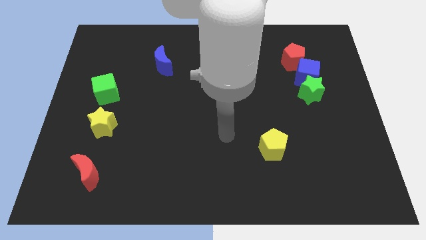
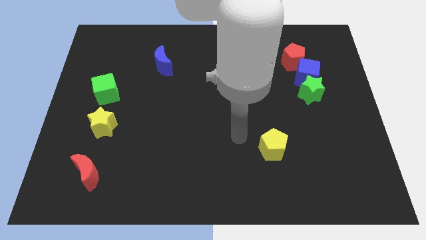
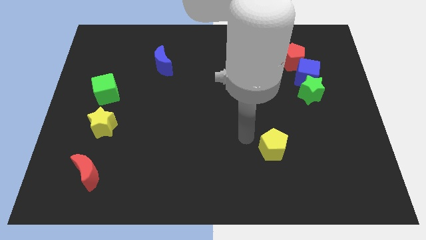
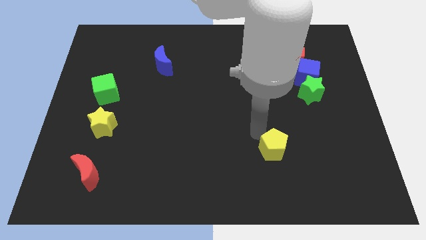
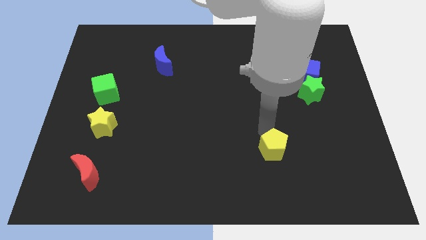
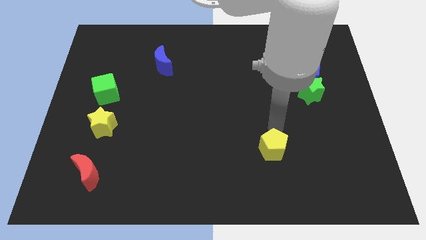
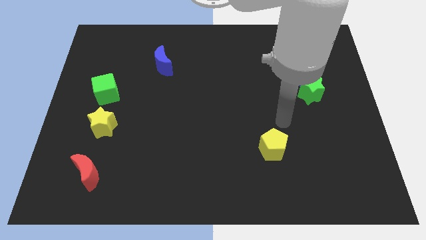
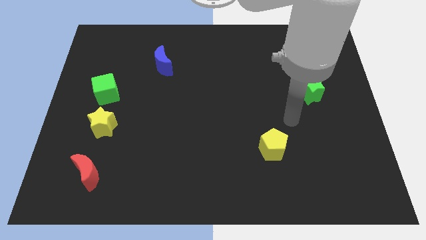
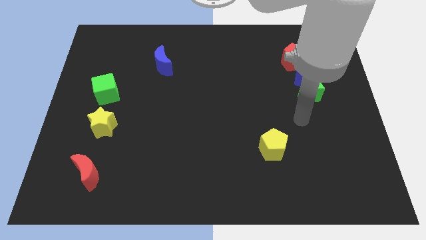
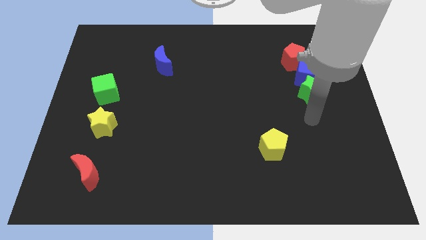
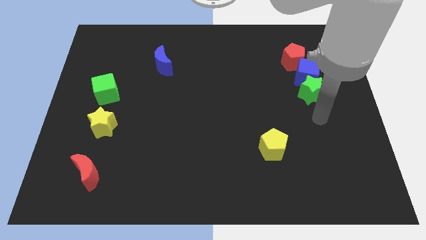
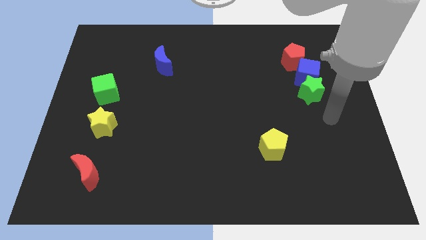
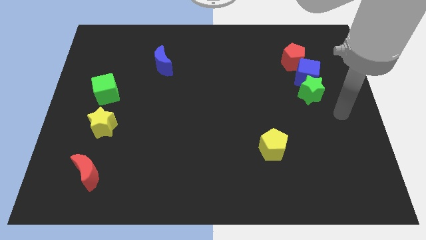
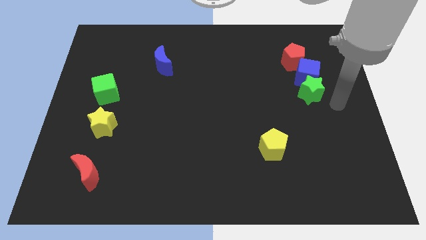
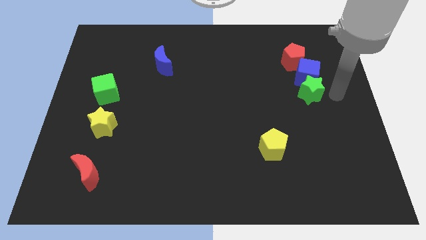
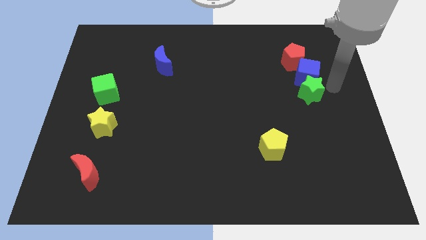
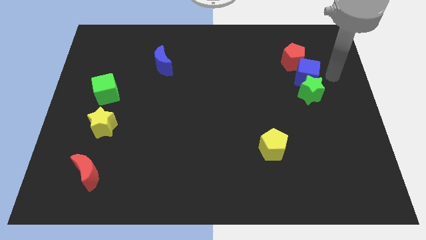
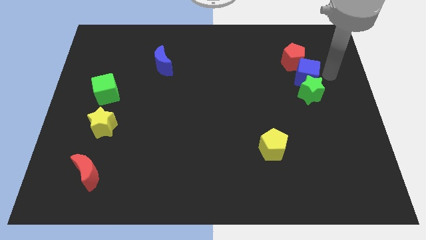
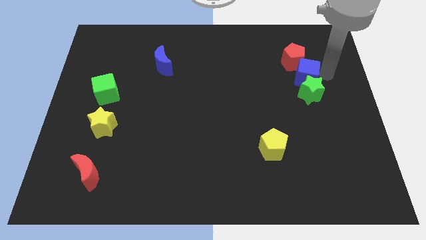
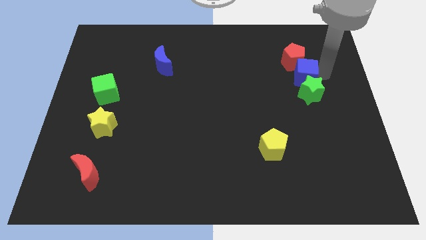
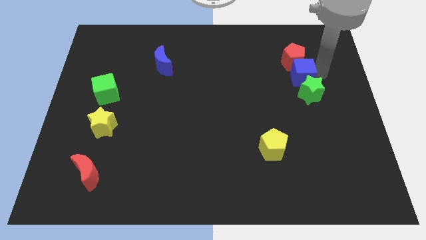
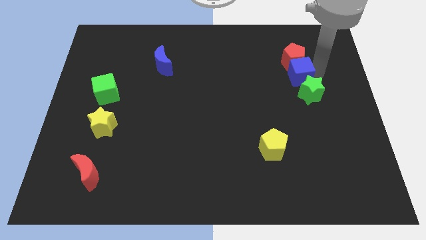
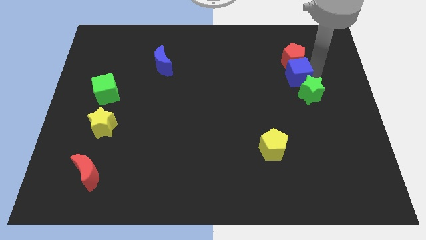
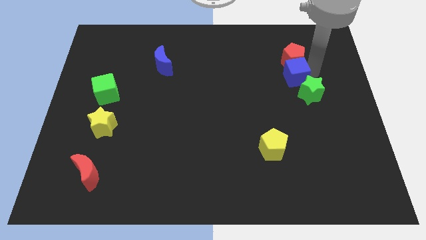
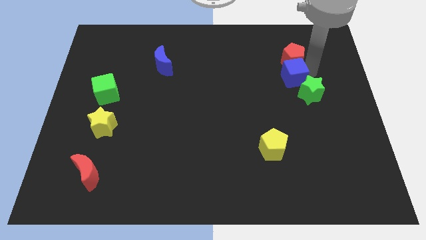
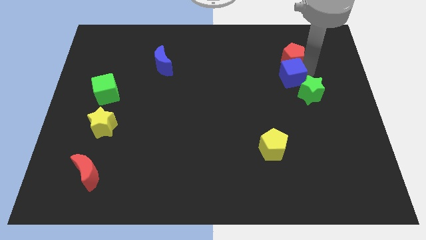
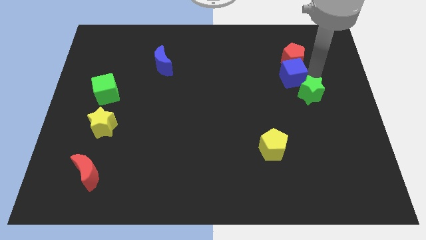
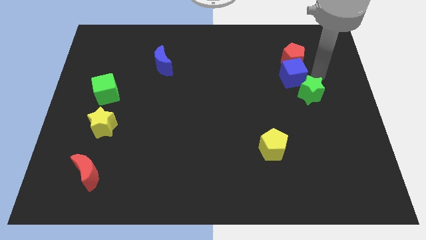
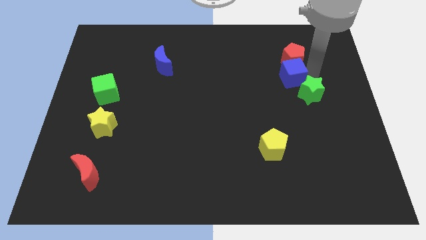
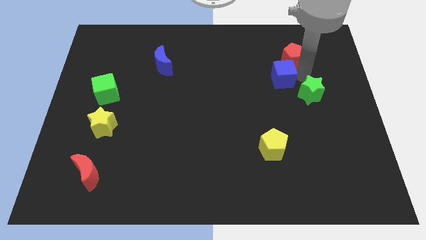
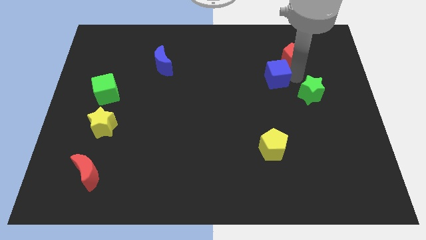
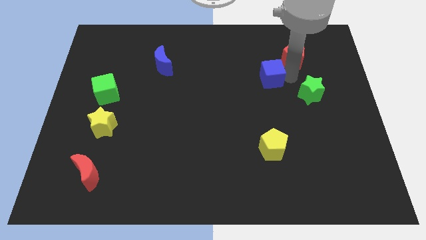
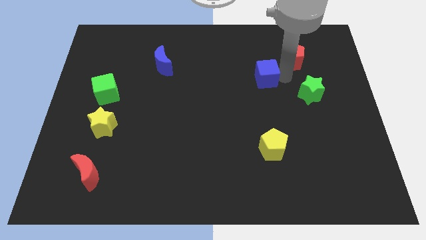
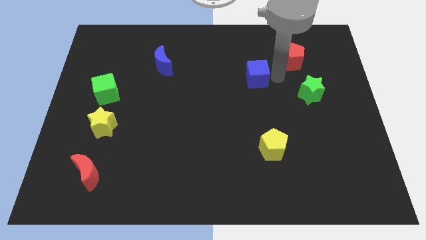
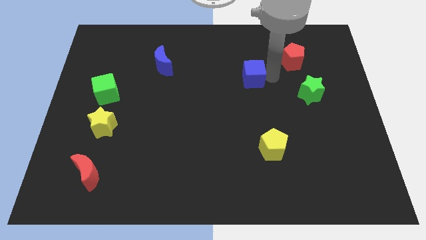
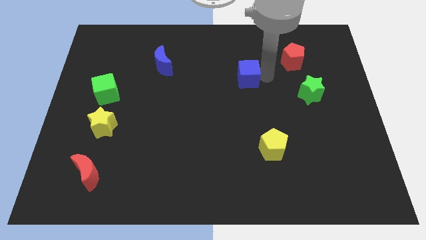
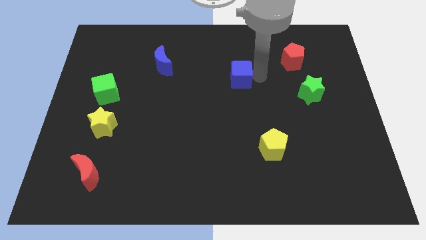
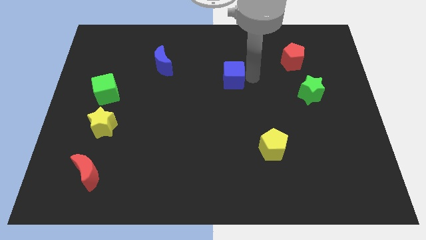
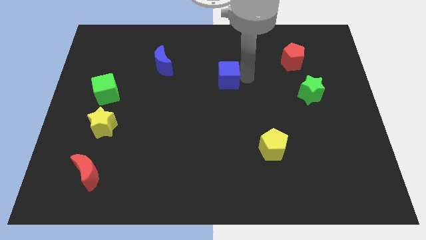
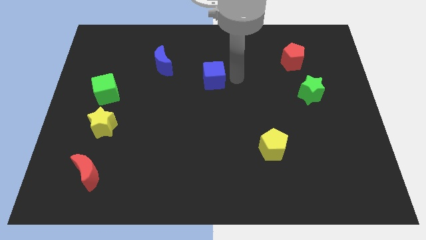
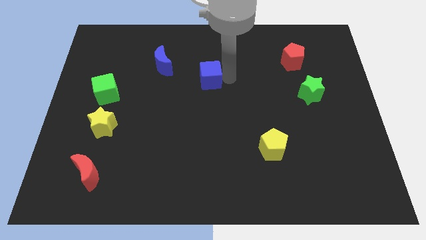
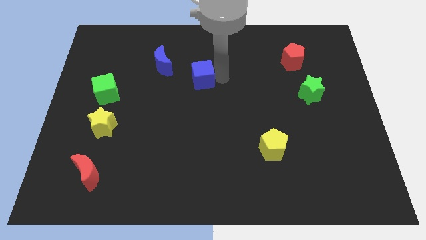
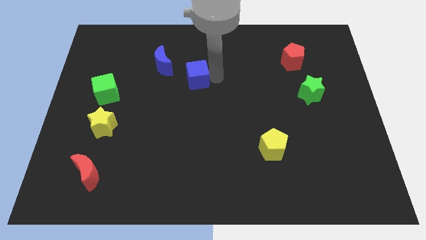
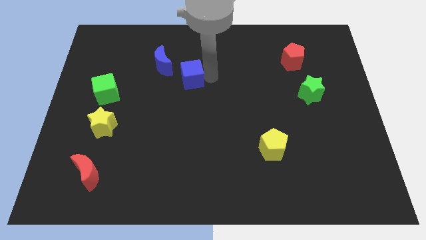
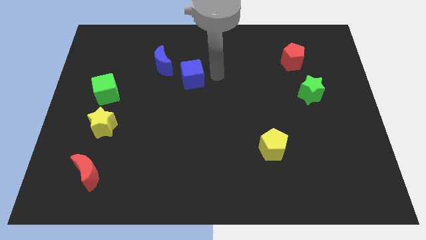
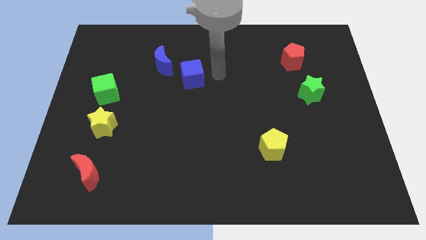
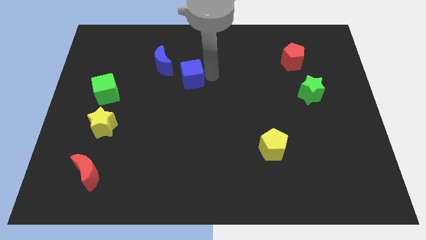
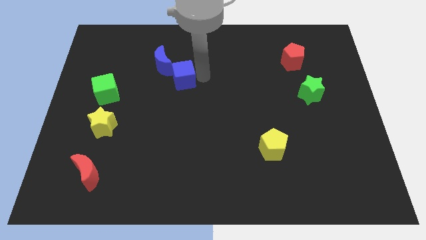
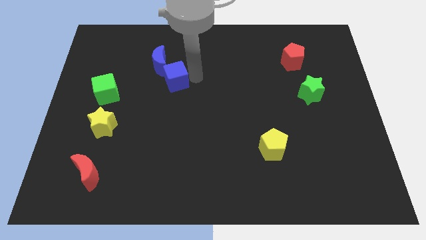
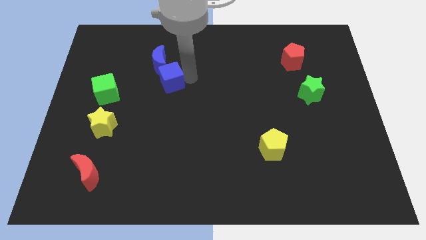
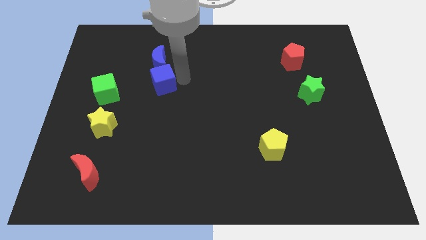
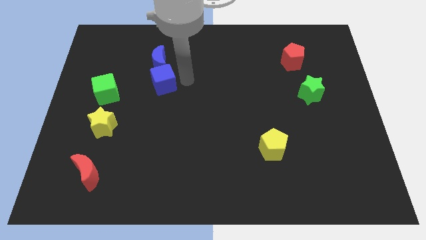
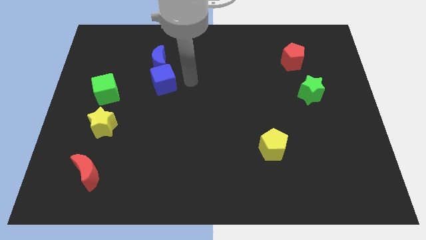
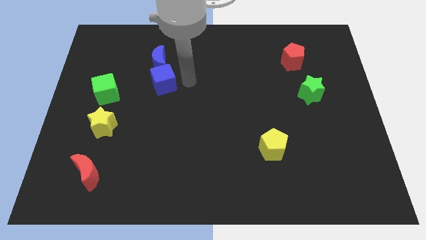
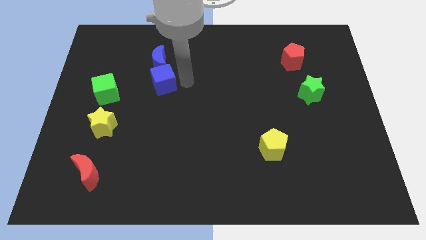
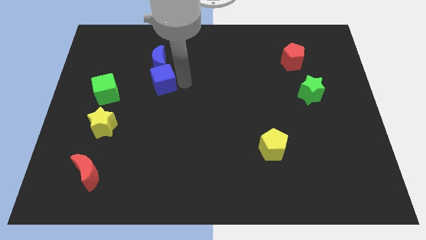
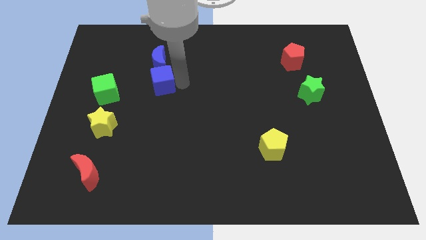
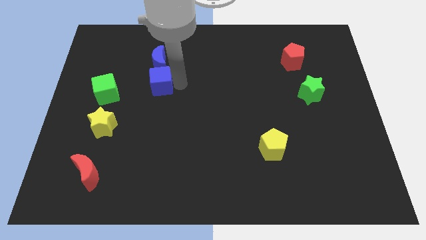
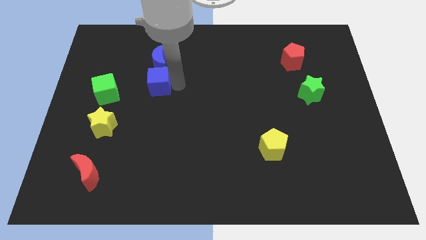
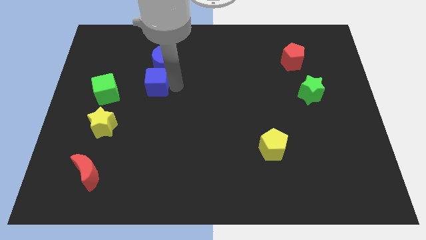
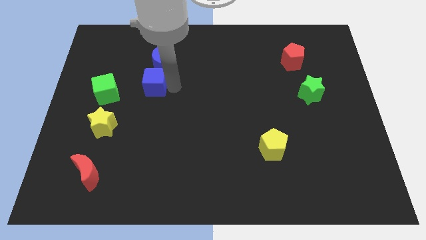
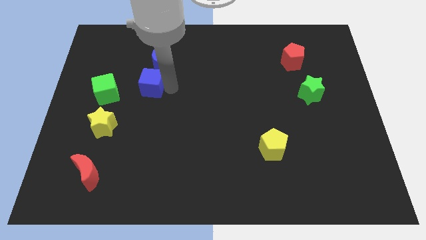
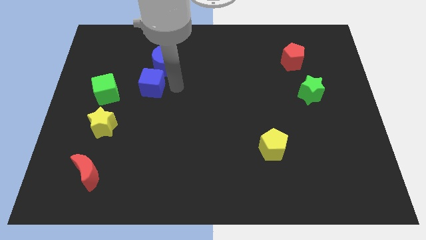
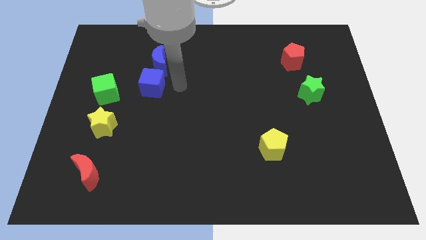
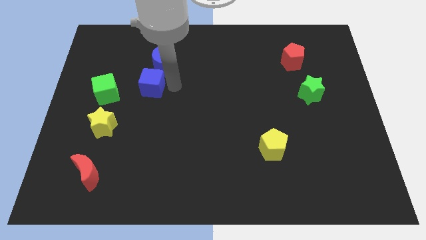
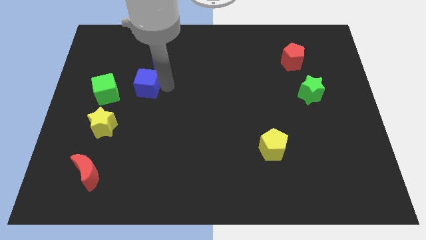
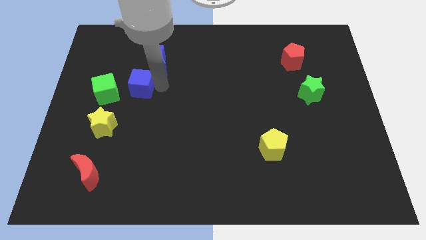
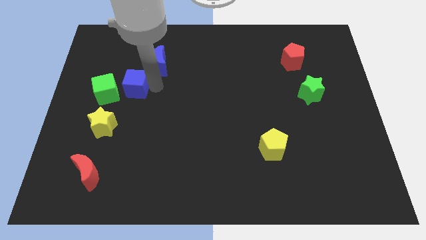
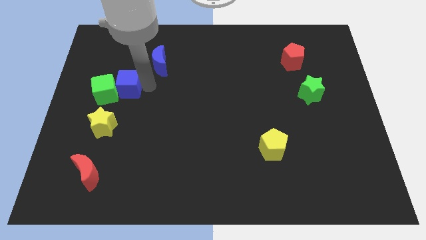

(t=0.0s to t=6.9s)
put the blue cube next to the green cube

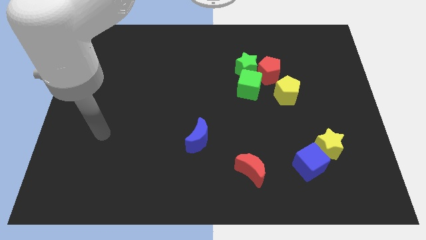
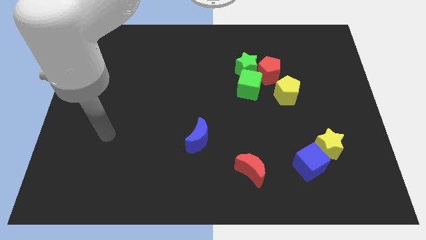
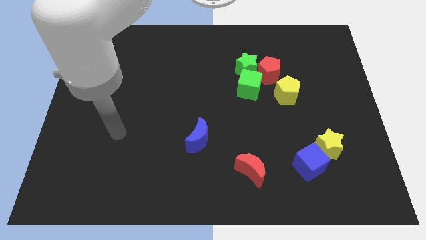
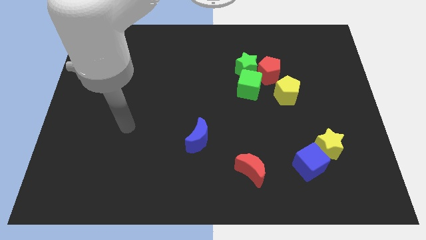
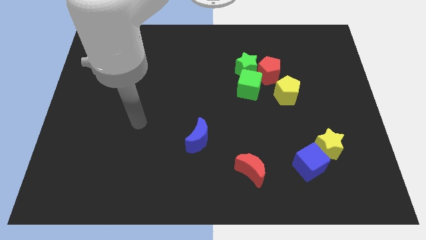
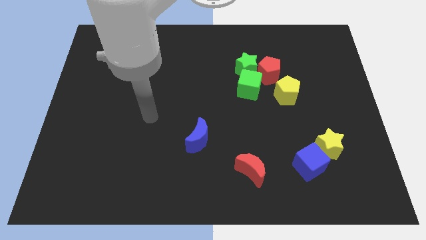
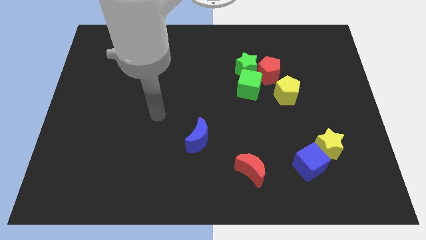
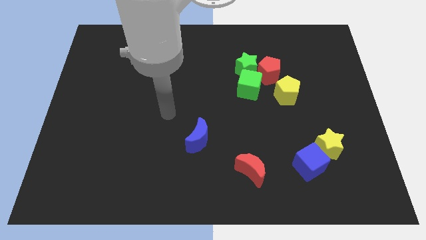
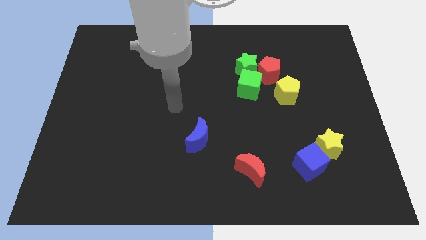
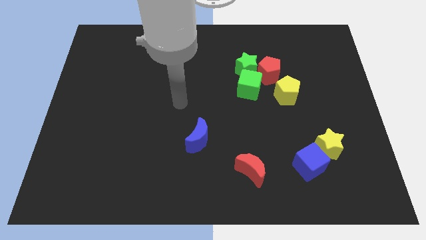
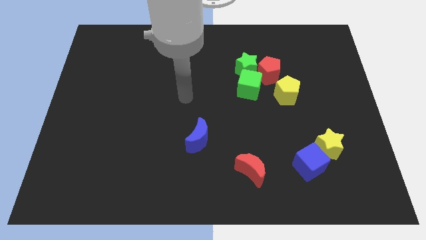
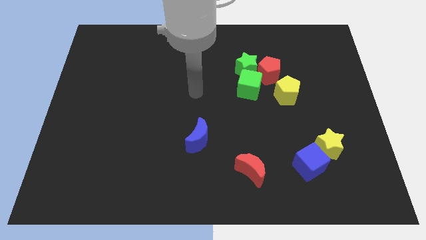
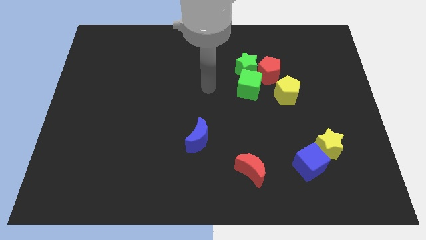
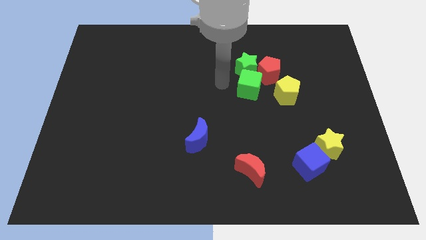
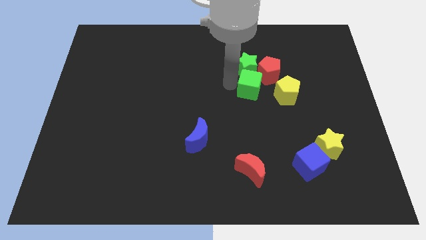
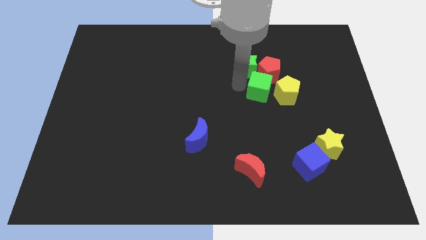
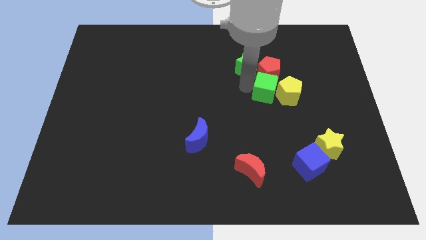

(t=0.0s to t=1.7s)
slide the green cube towards the yellow pentagon
